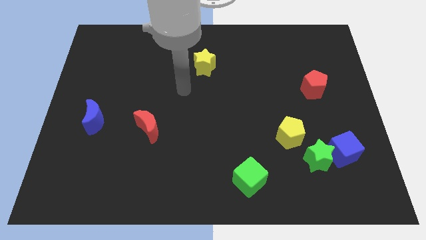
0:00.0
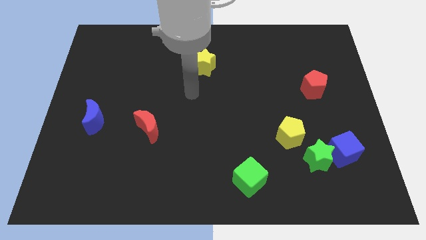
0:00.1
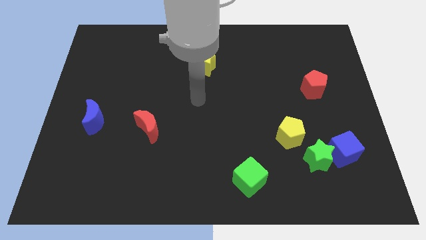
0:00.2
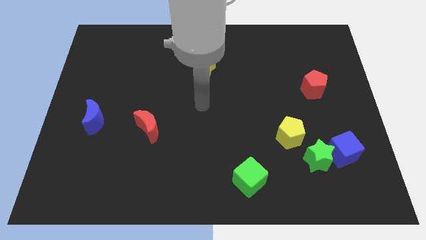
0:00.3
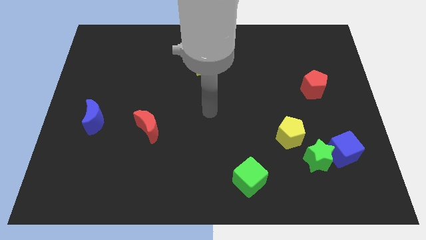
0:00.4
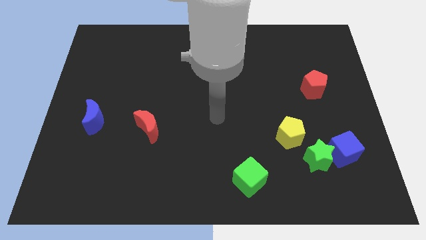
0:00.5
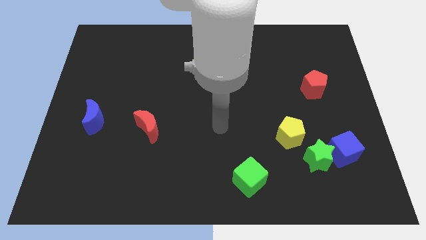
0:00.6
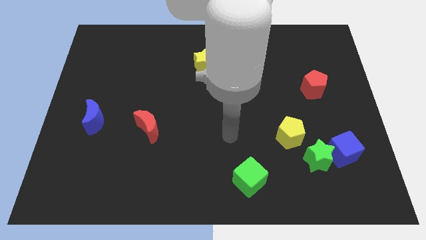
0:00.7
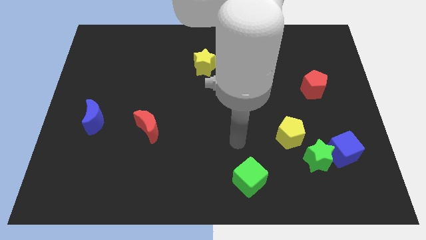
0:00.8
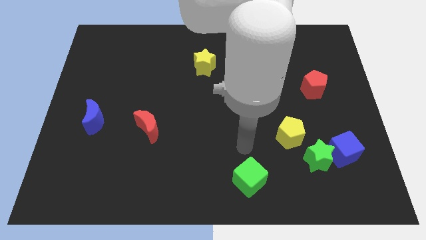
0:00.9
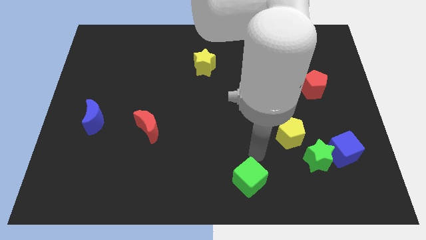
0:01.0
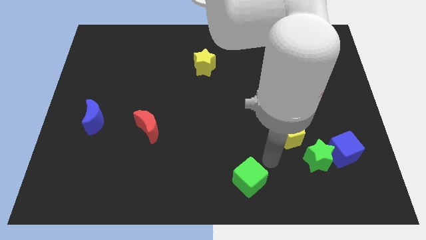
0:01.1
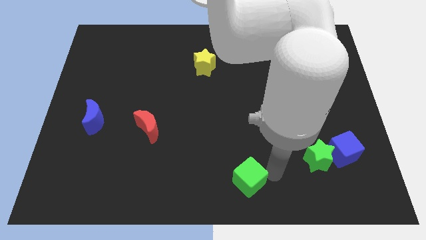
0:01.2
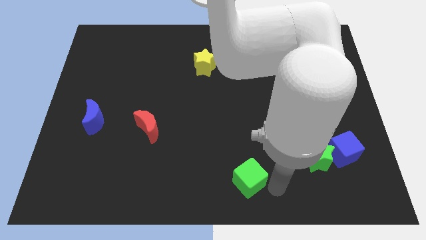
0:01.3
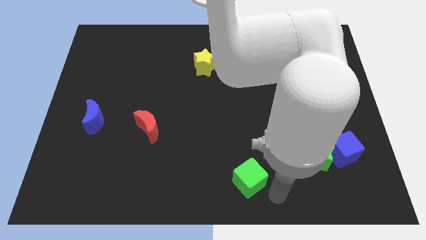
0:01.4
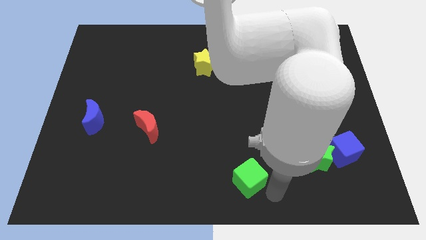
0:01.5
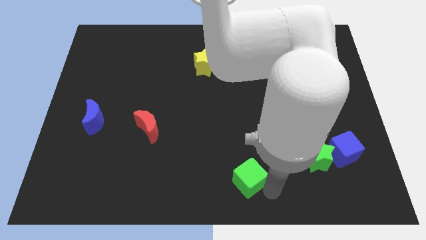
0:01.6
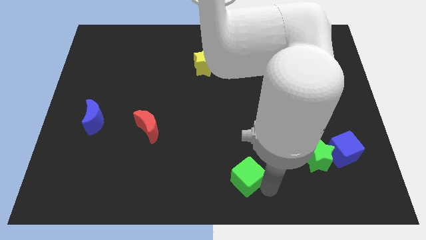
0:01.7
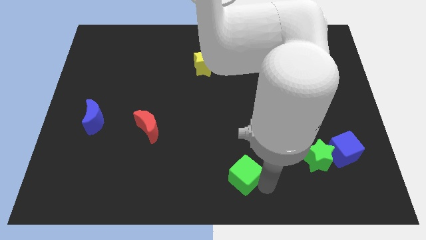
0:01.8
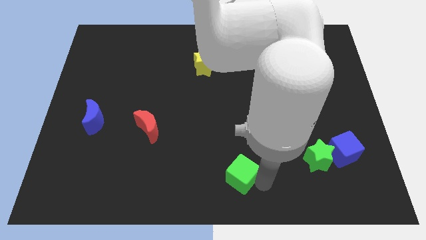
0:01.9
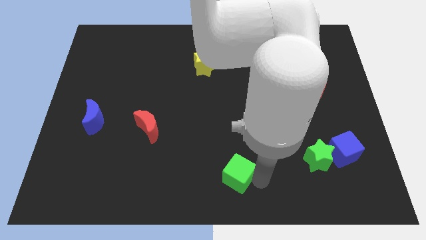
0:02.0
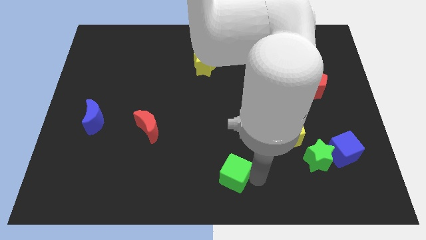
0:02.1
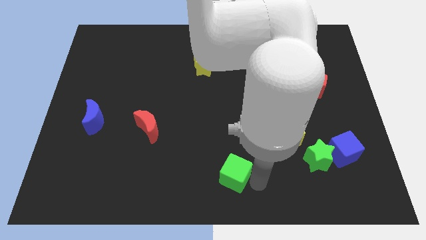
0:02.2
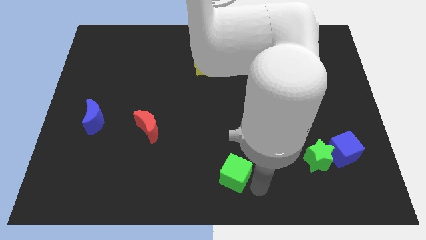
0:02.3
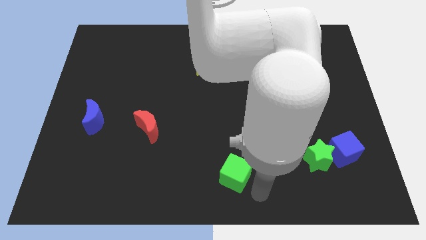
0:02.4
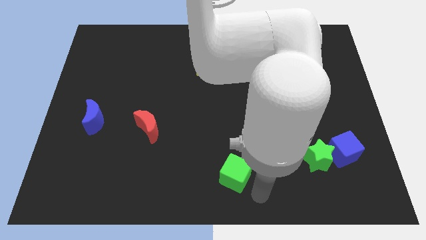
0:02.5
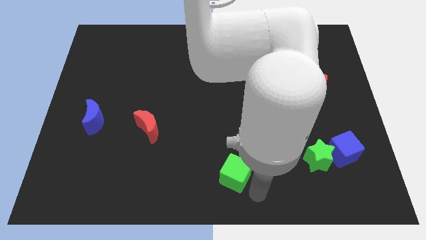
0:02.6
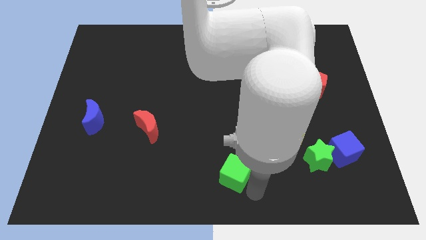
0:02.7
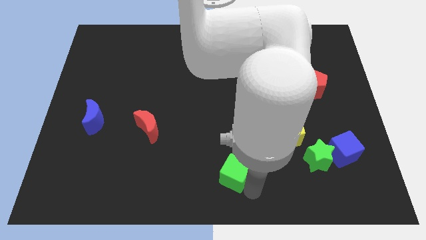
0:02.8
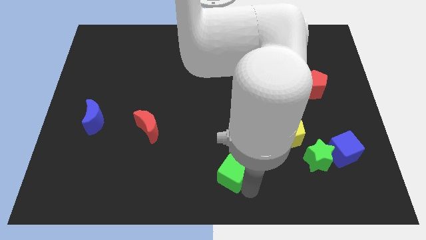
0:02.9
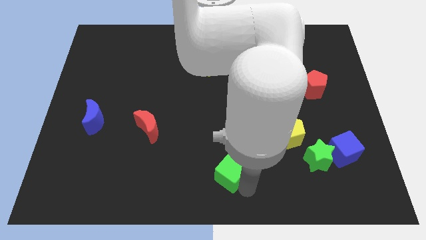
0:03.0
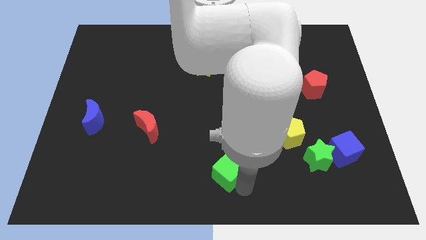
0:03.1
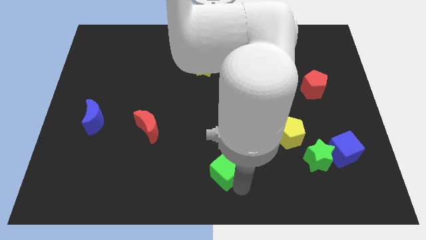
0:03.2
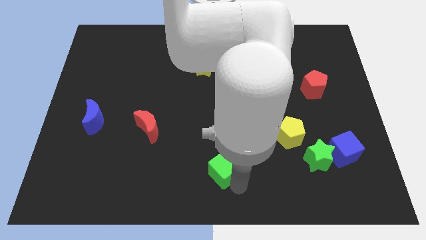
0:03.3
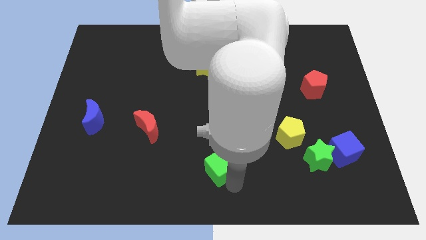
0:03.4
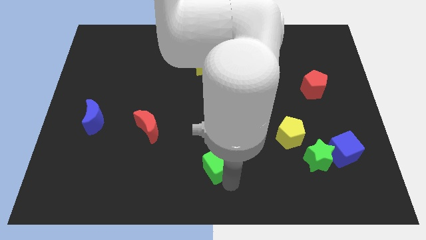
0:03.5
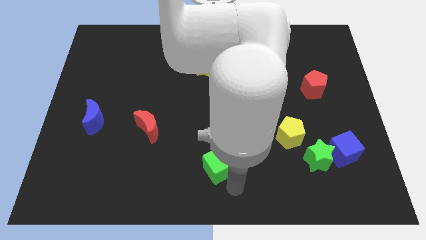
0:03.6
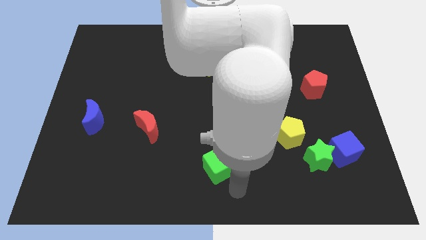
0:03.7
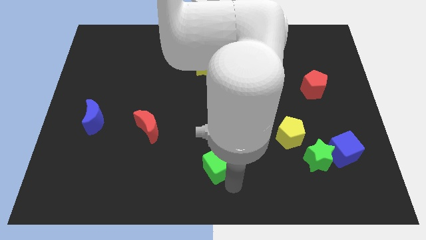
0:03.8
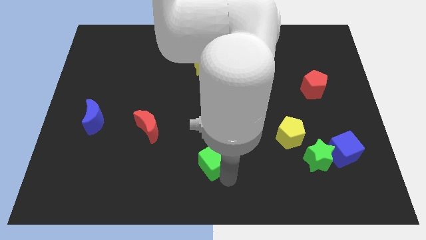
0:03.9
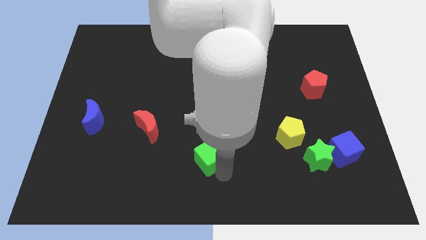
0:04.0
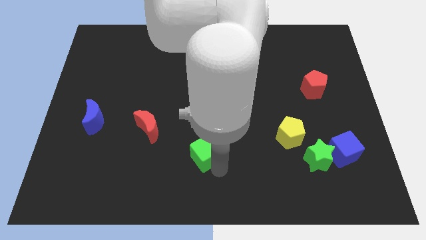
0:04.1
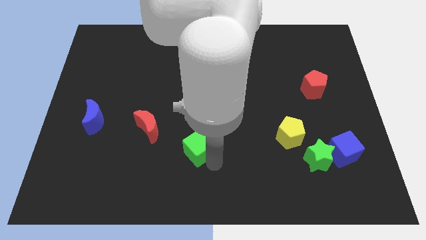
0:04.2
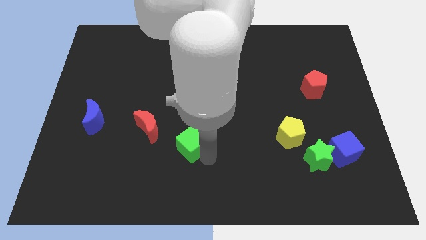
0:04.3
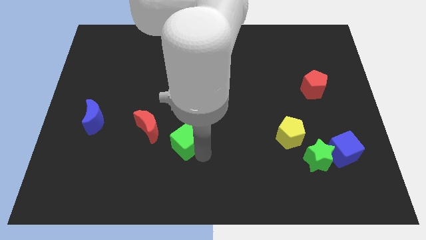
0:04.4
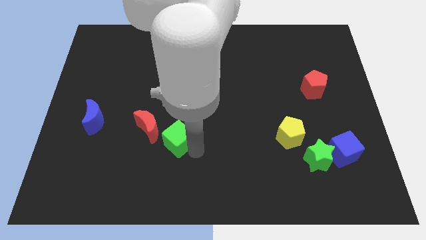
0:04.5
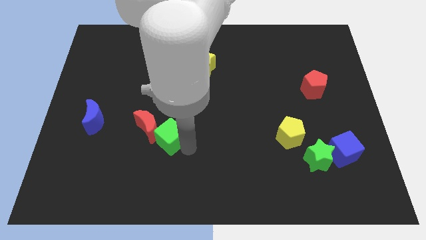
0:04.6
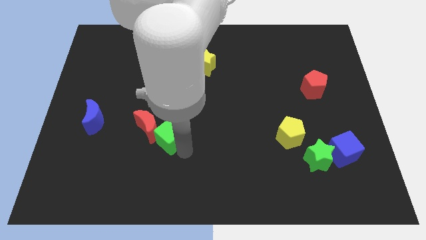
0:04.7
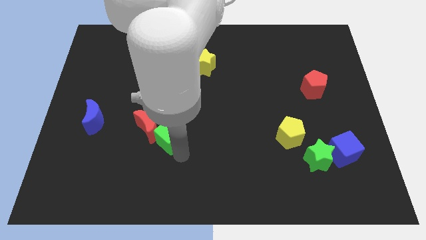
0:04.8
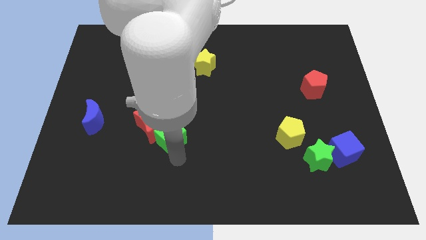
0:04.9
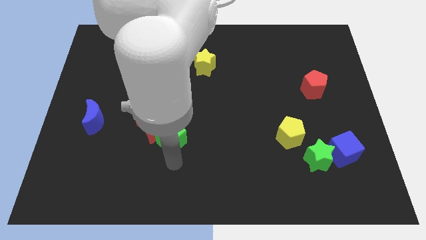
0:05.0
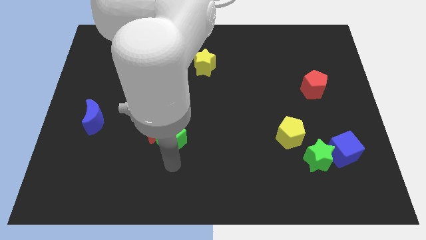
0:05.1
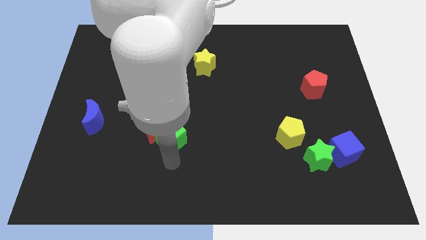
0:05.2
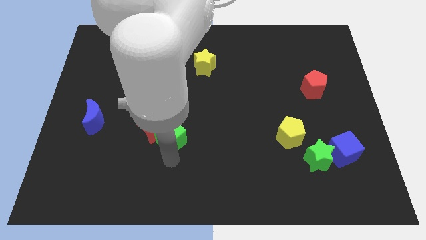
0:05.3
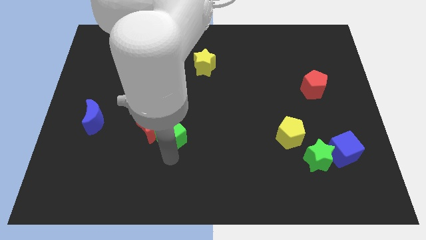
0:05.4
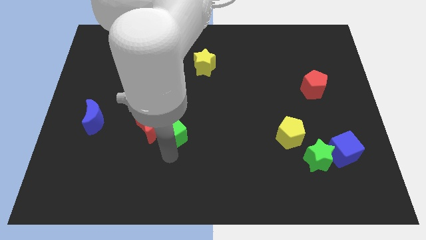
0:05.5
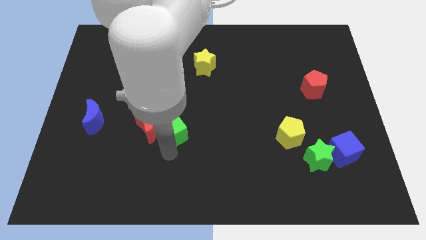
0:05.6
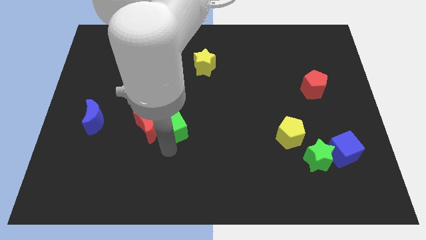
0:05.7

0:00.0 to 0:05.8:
move the green cube diagonally upwards and left

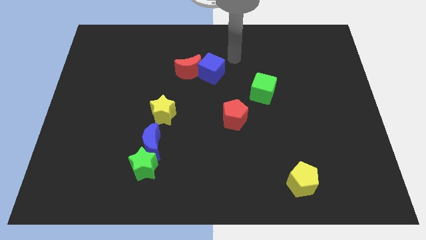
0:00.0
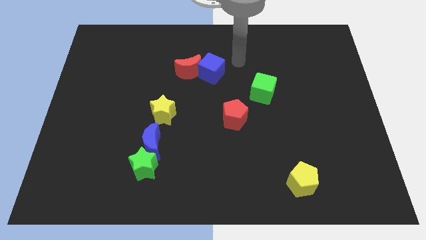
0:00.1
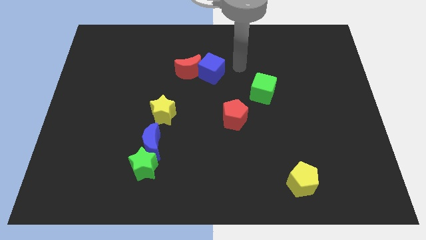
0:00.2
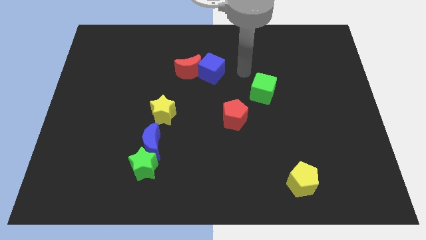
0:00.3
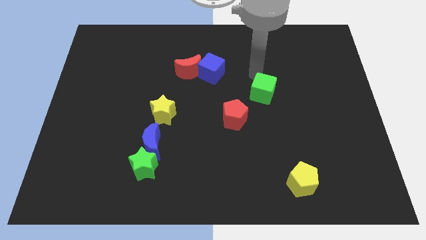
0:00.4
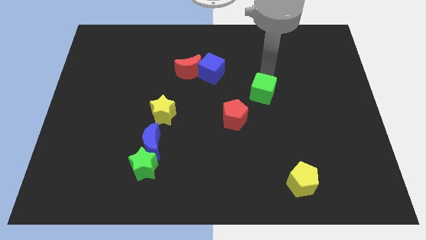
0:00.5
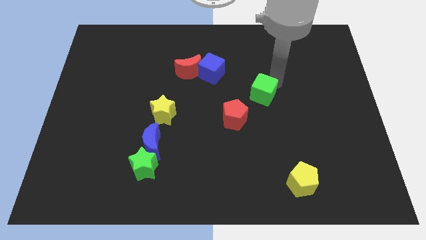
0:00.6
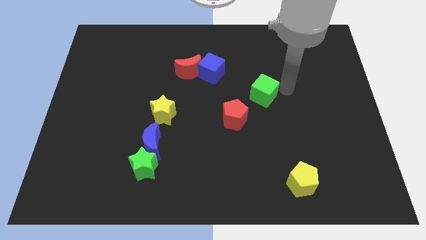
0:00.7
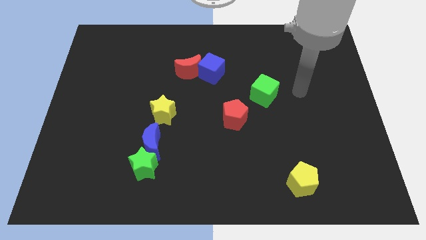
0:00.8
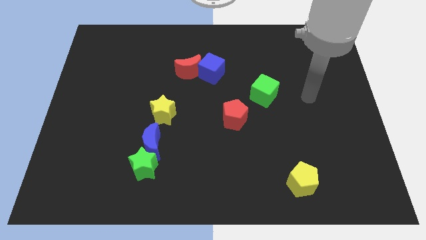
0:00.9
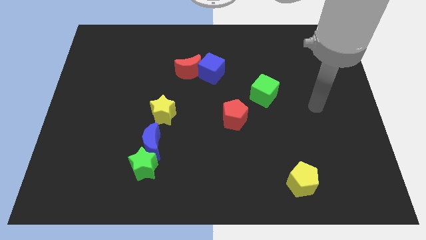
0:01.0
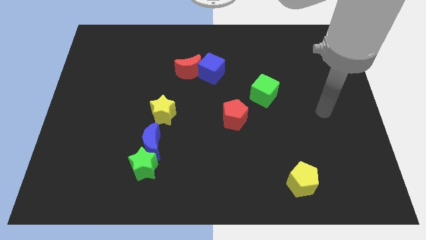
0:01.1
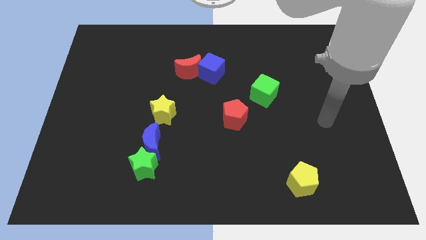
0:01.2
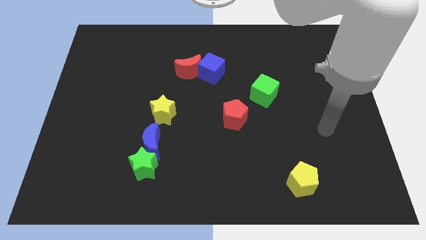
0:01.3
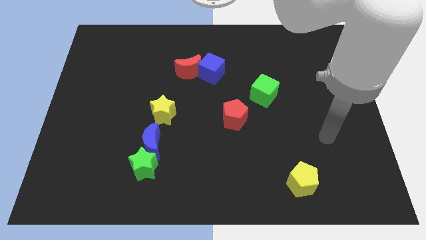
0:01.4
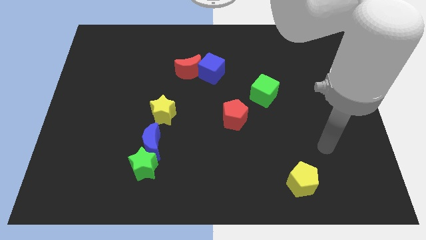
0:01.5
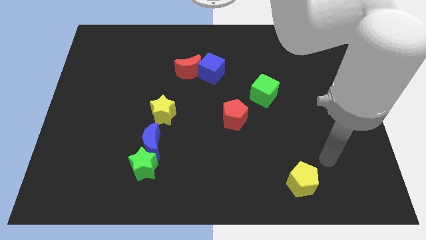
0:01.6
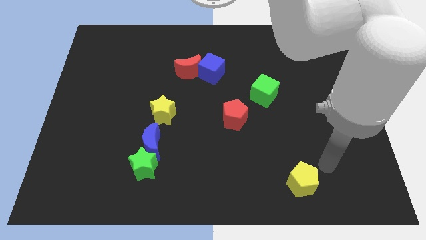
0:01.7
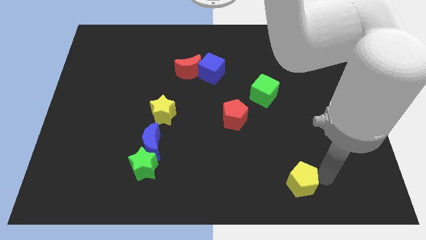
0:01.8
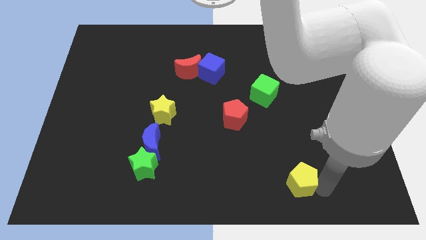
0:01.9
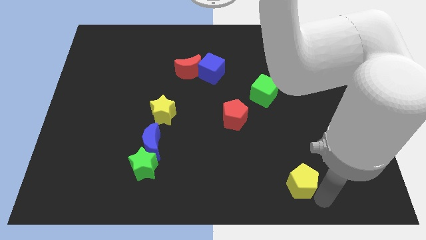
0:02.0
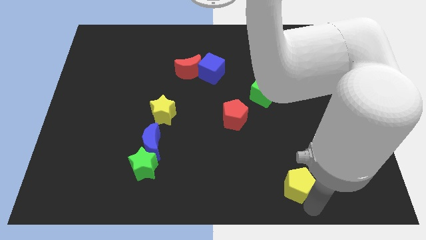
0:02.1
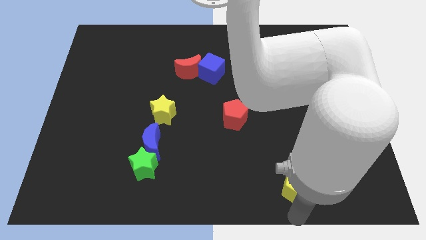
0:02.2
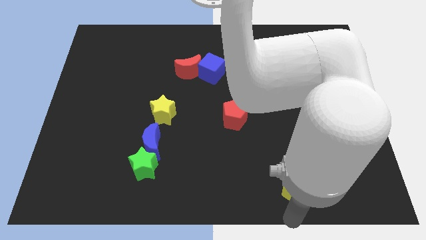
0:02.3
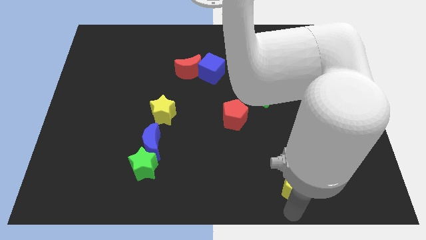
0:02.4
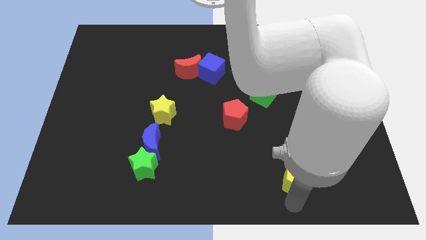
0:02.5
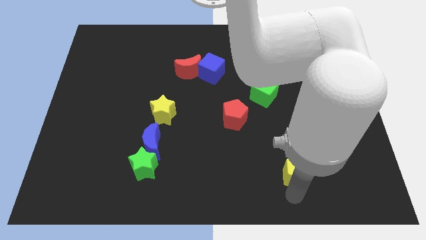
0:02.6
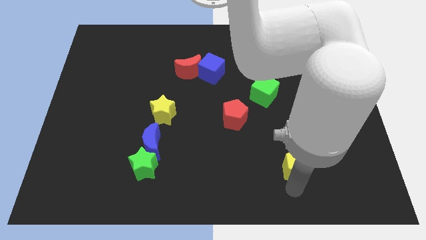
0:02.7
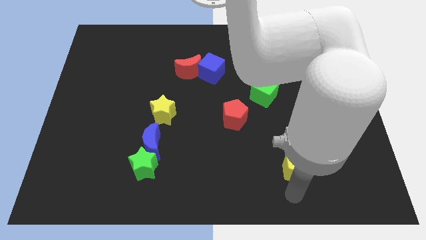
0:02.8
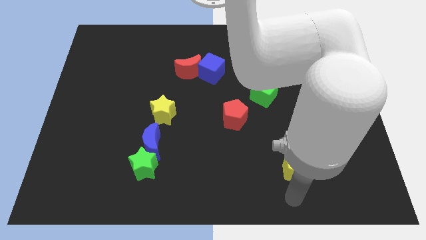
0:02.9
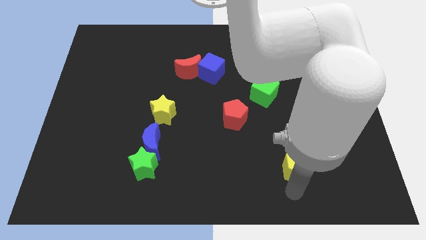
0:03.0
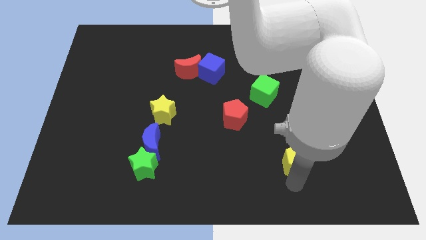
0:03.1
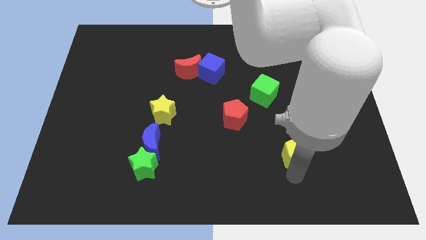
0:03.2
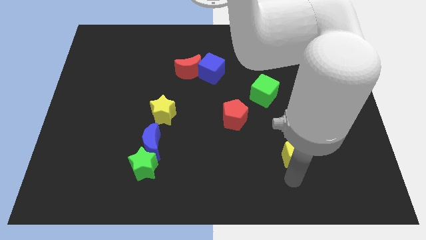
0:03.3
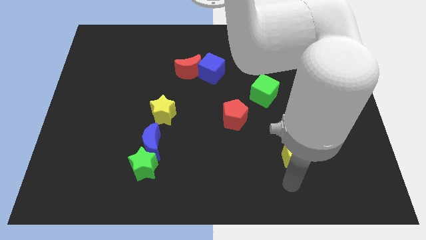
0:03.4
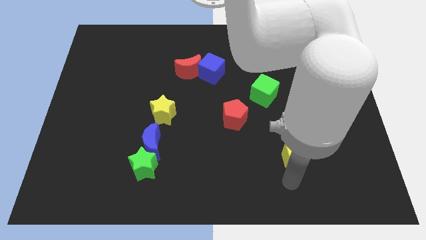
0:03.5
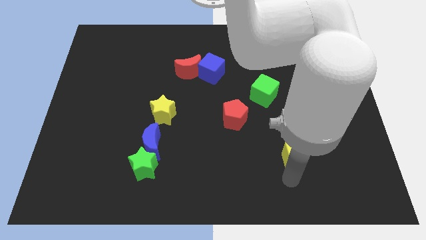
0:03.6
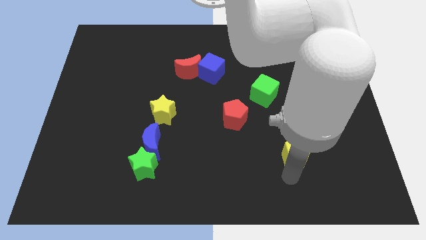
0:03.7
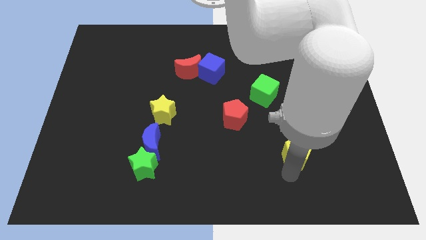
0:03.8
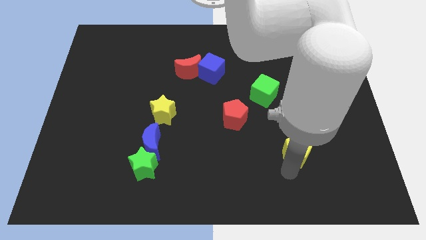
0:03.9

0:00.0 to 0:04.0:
slide the yellow pentagon upwards a little
